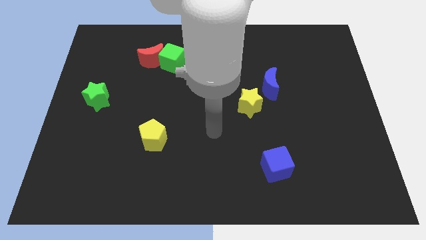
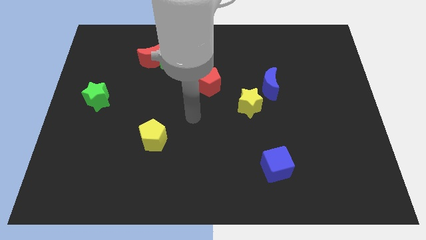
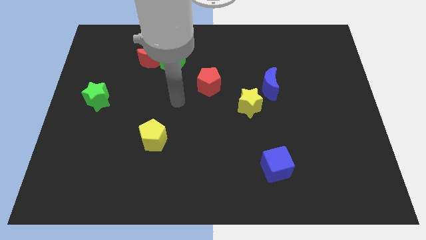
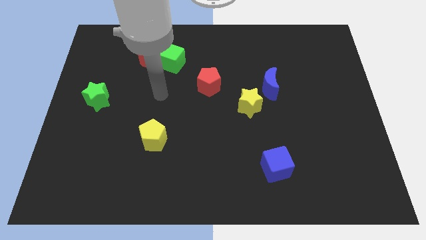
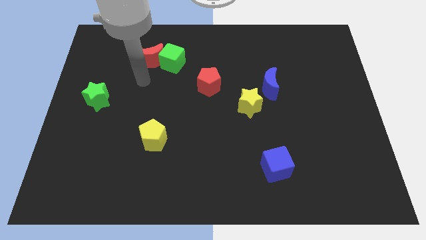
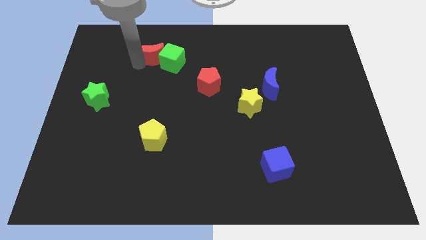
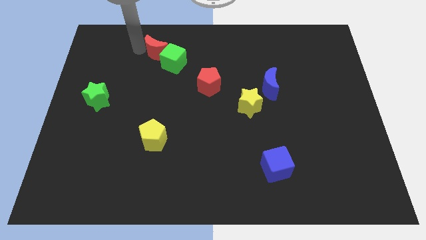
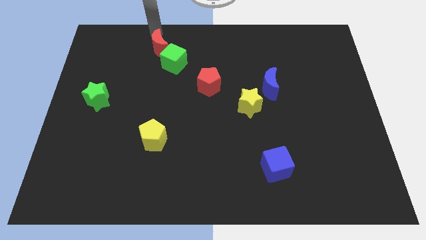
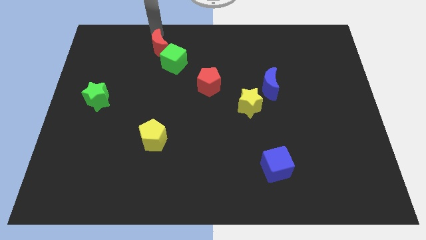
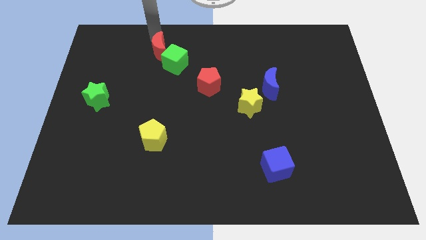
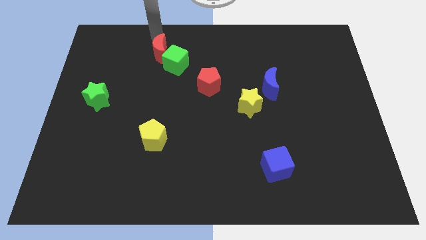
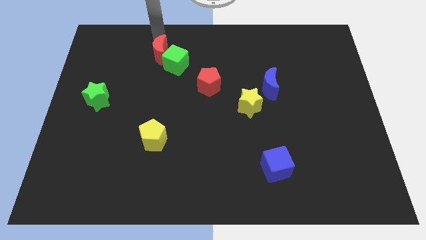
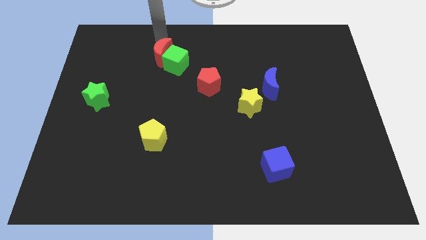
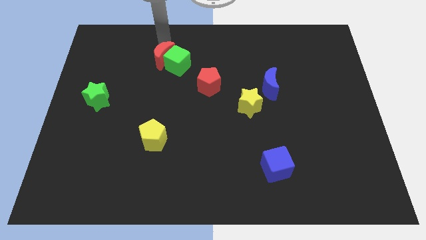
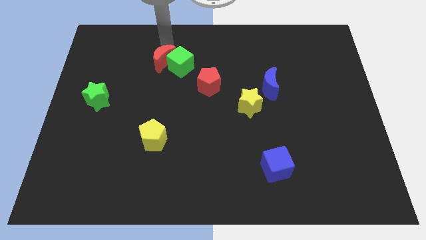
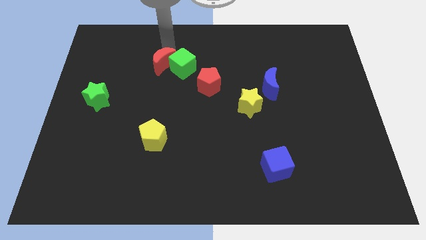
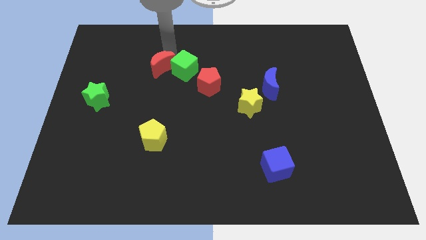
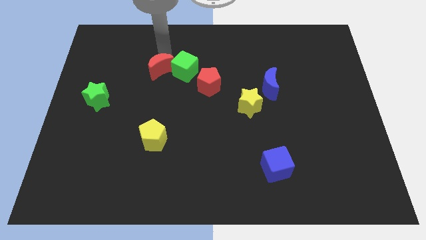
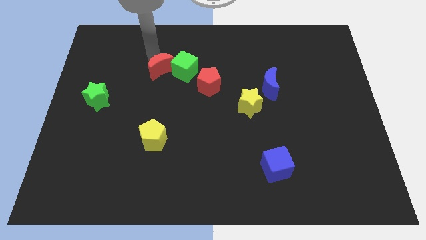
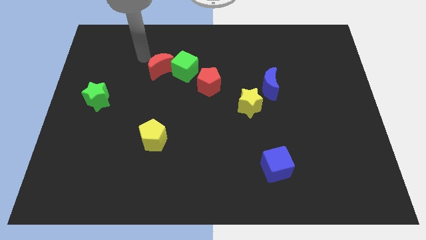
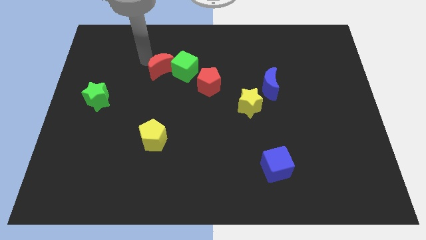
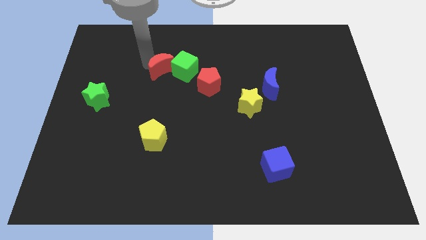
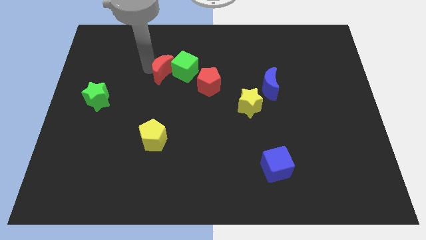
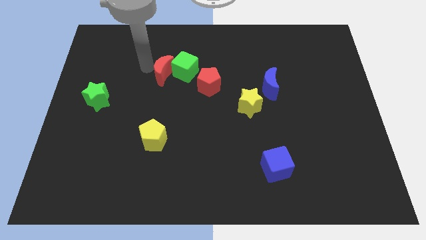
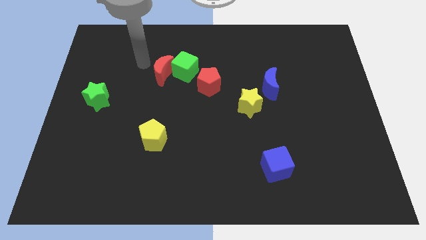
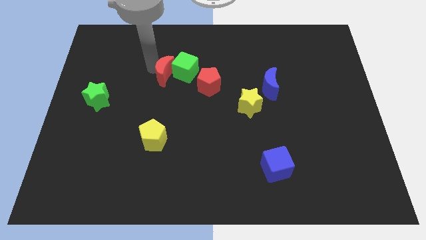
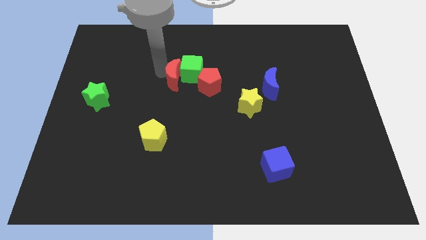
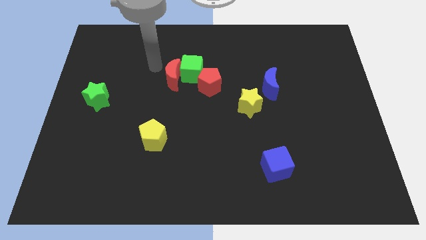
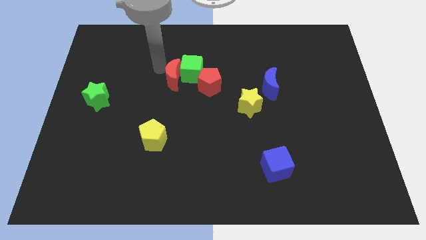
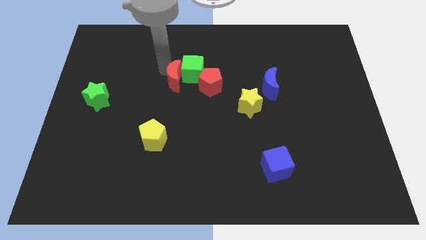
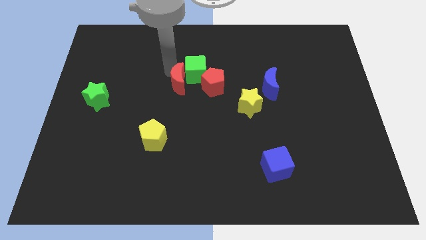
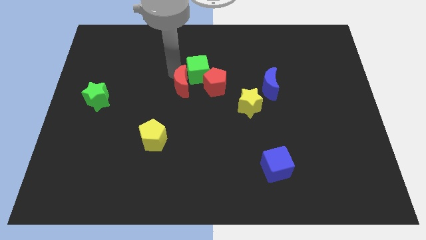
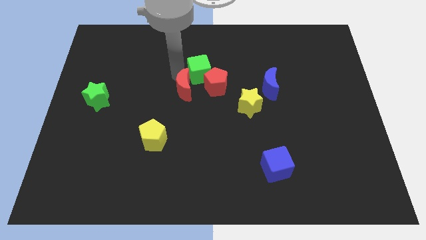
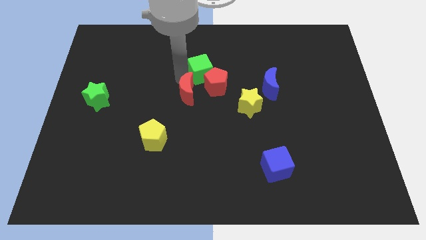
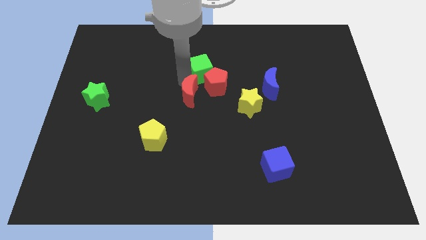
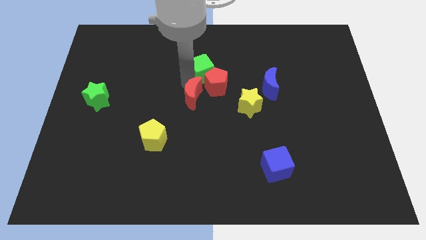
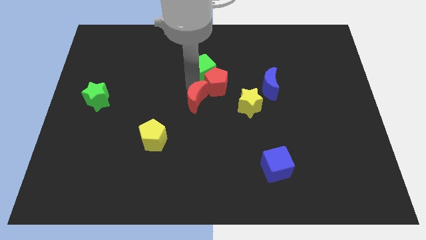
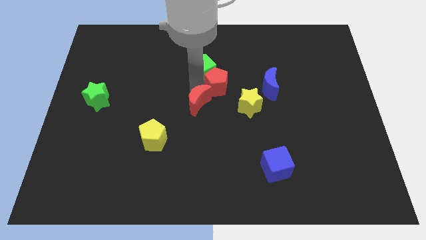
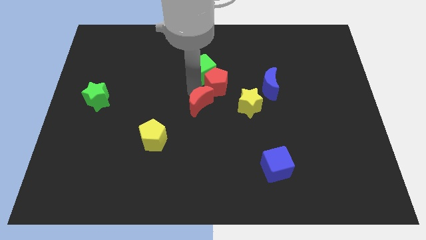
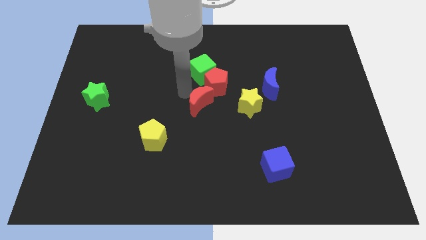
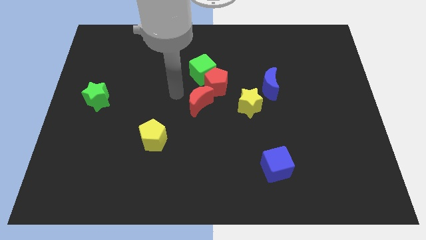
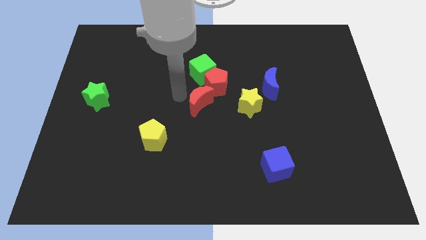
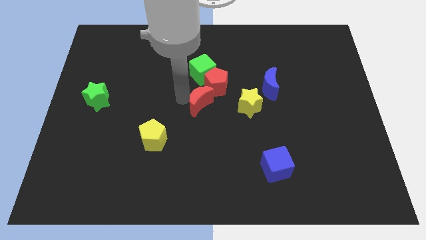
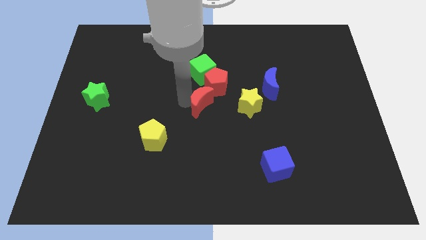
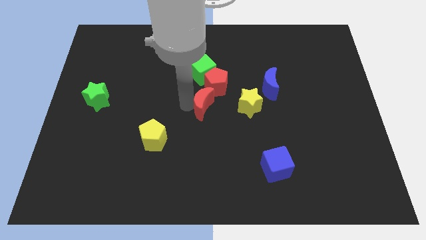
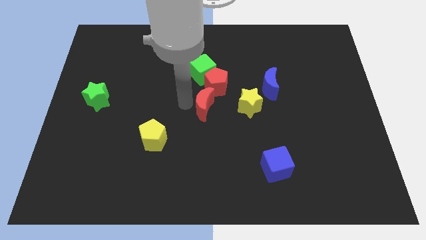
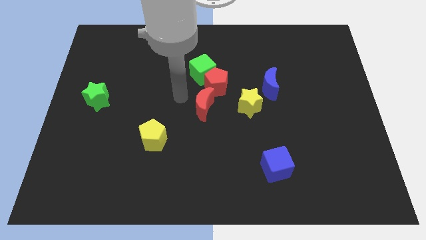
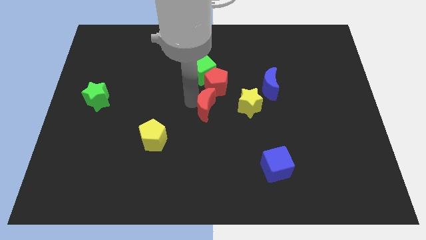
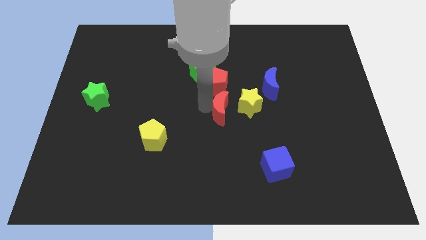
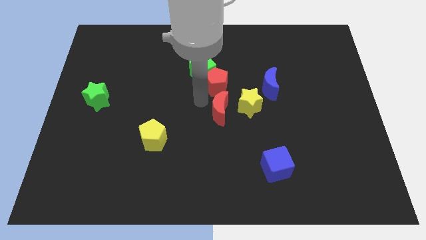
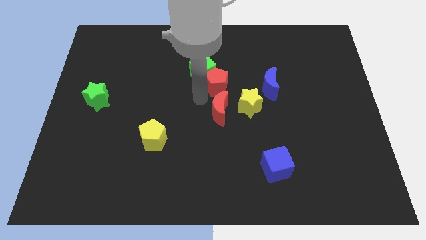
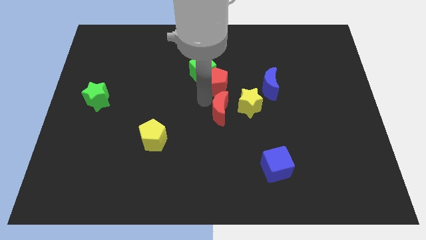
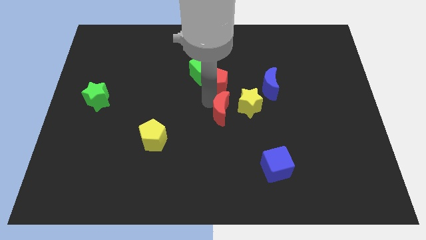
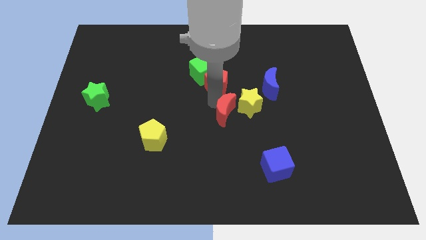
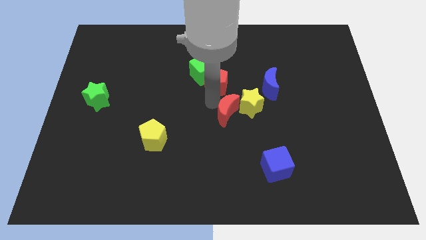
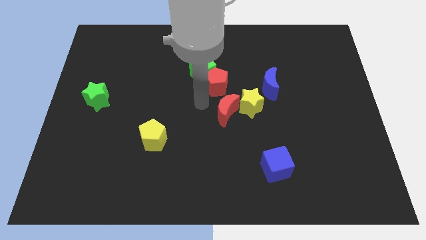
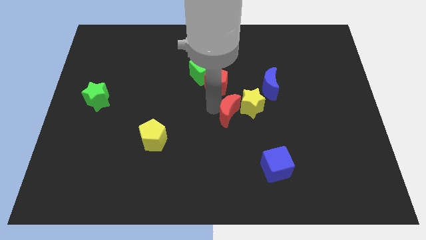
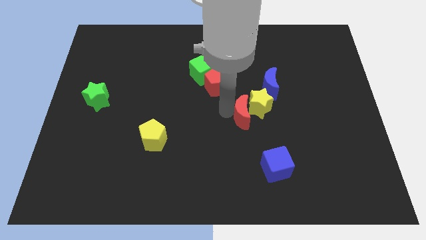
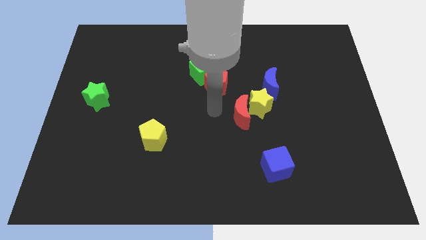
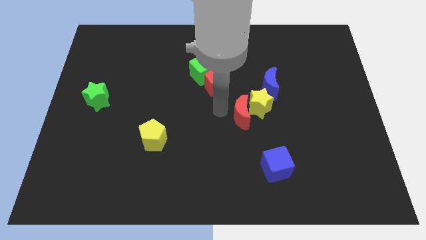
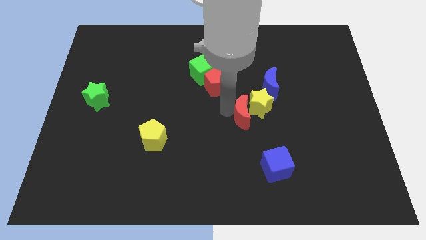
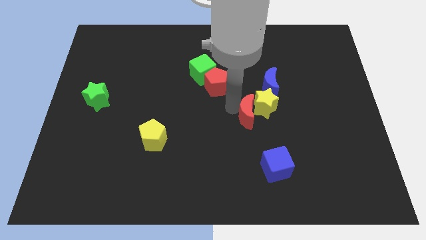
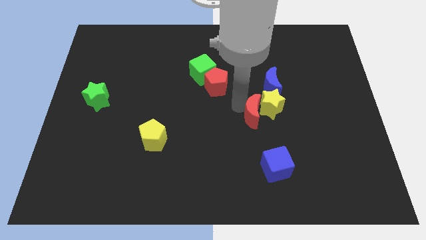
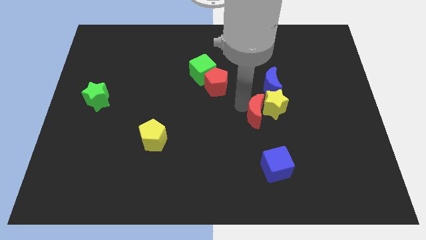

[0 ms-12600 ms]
move the red moon to the bottom side of the blue moon

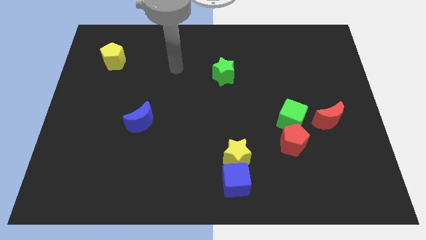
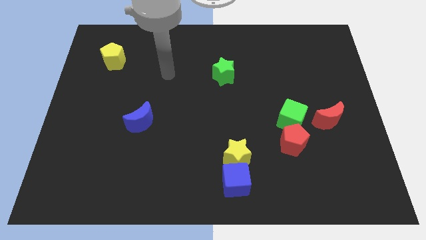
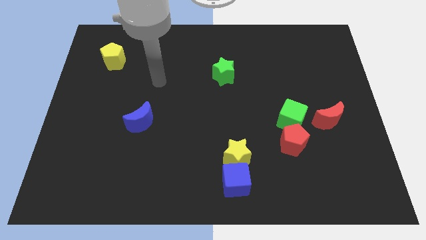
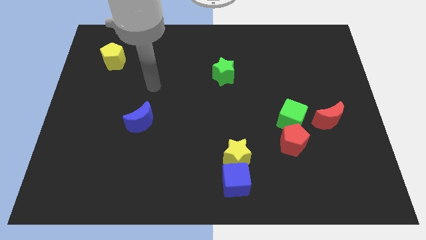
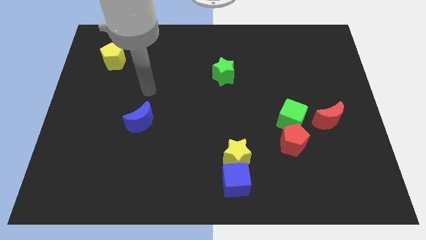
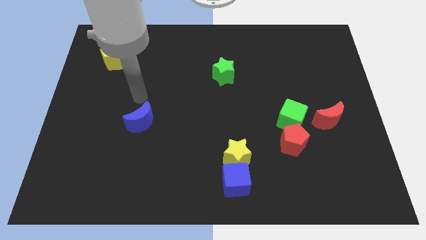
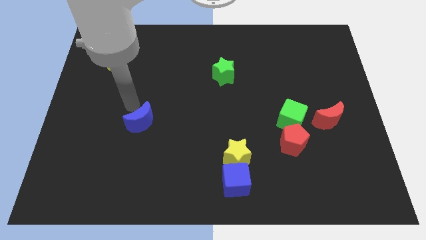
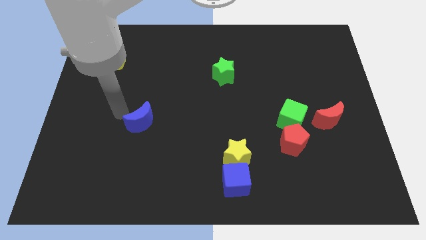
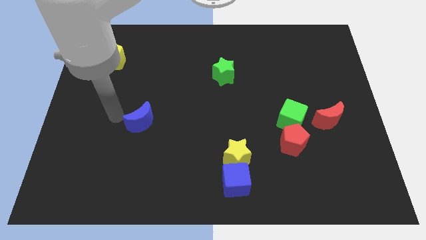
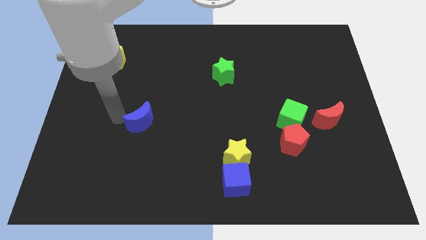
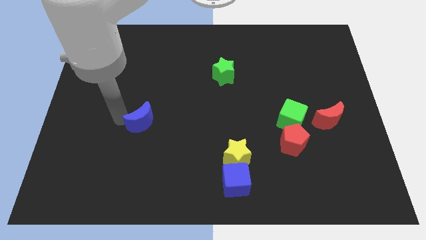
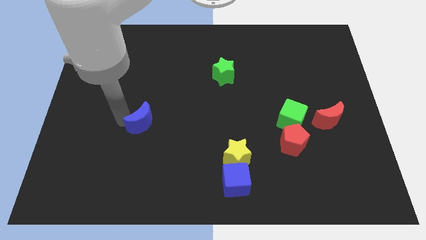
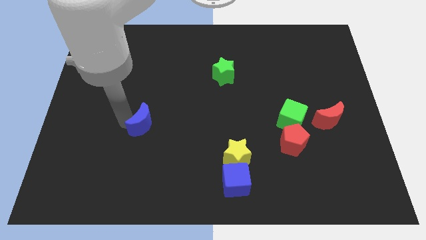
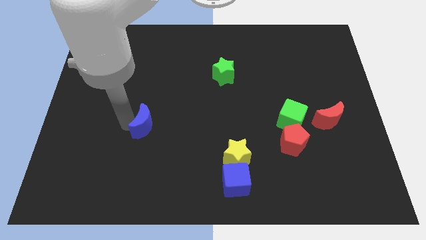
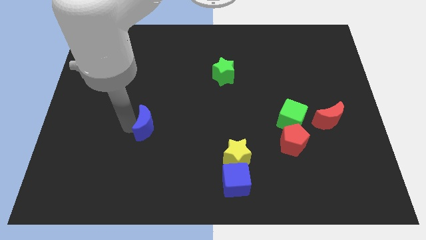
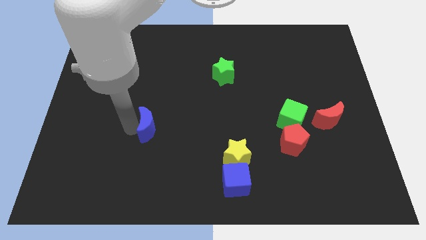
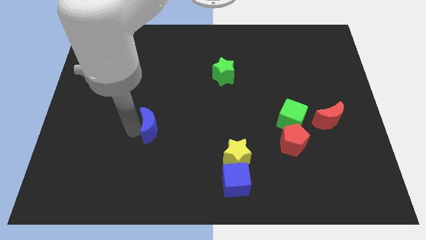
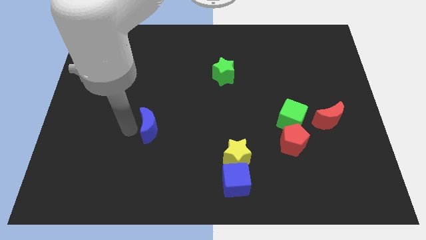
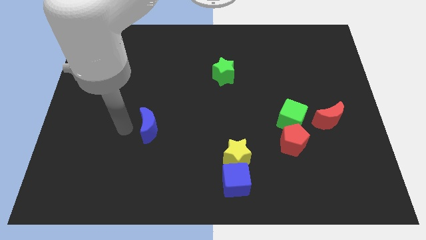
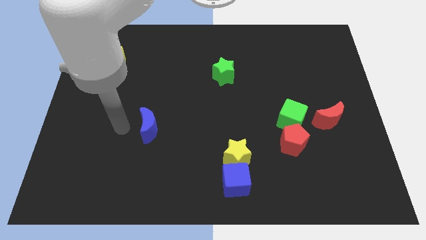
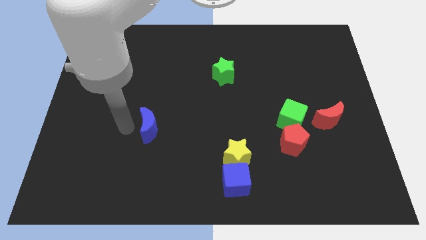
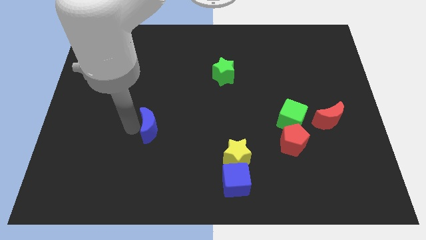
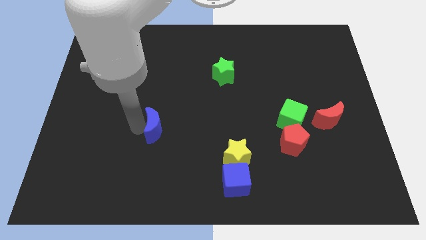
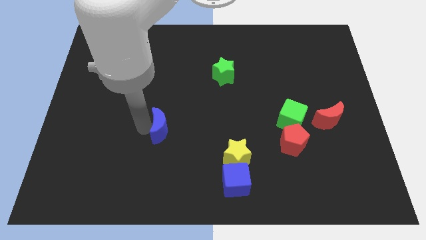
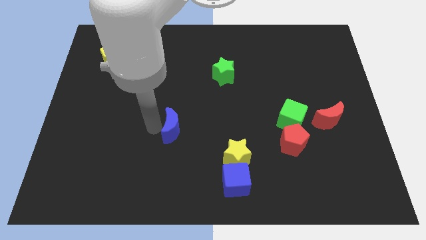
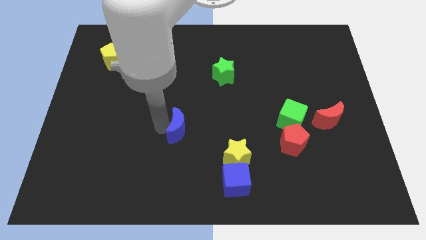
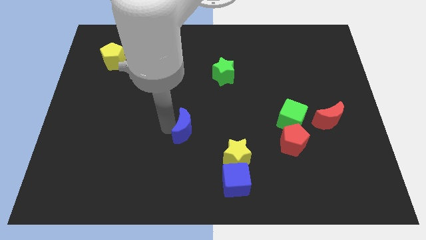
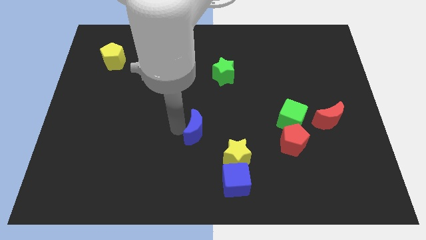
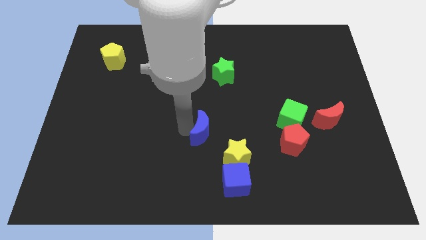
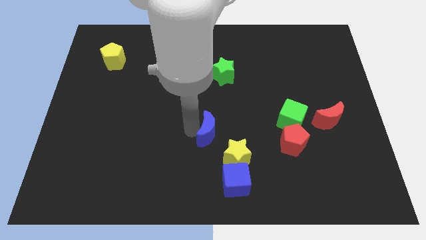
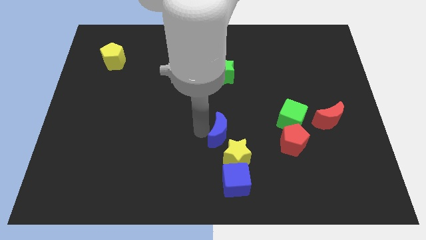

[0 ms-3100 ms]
move the blue moon left of the red pentagon
